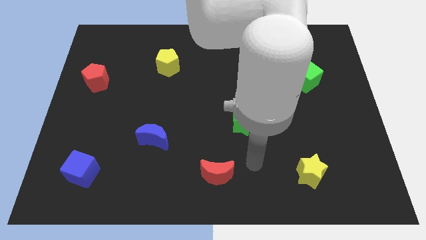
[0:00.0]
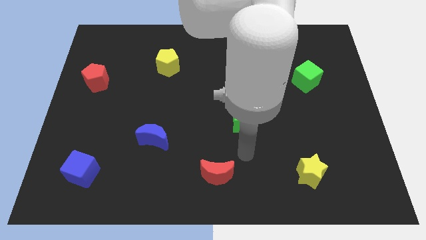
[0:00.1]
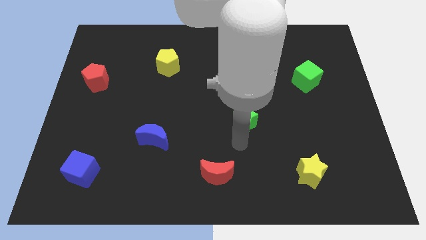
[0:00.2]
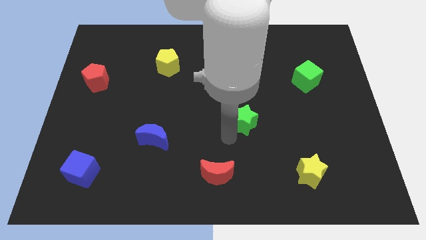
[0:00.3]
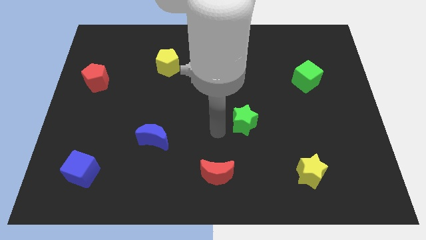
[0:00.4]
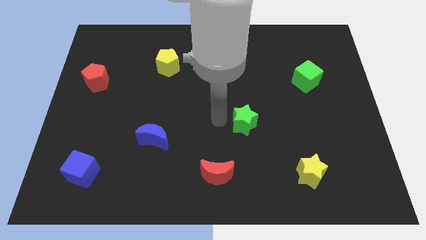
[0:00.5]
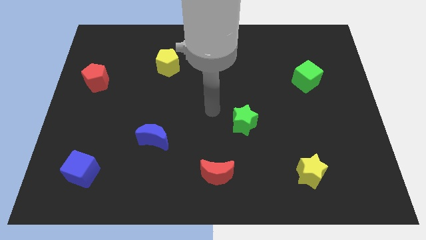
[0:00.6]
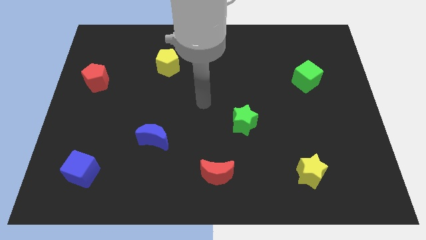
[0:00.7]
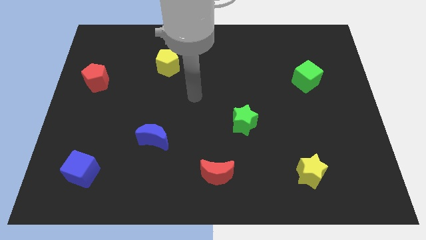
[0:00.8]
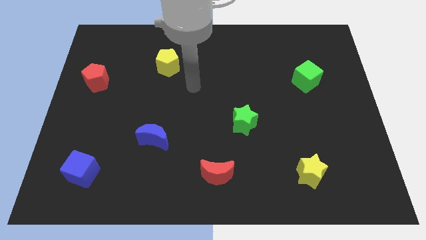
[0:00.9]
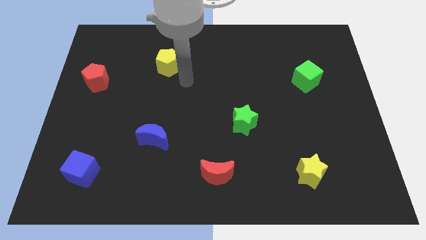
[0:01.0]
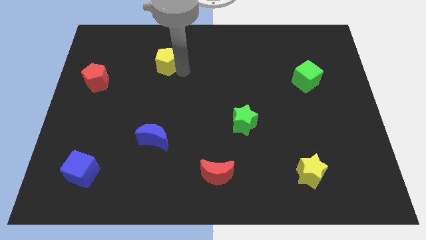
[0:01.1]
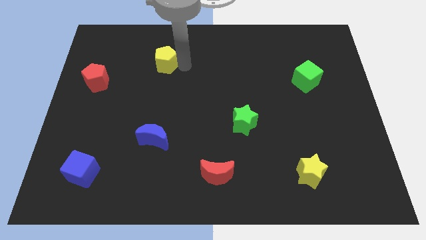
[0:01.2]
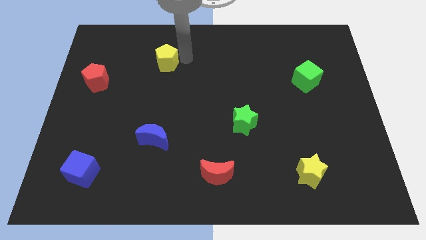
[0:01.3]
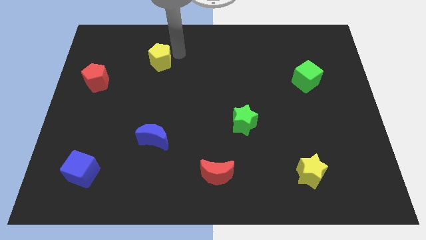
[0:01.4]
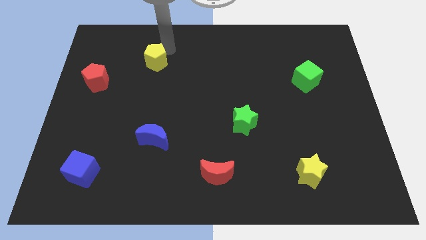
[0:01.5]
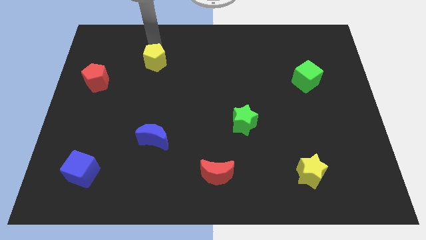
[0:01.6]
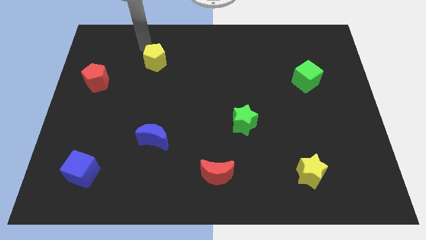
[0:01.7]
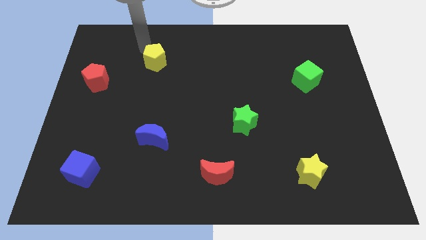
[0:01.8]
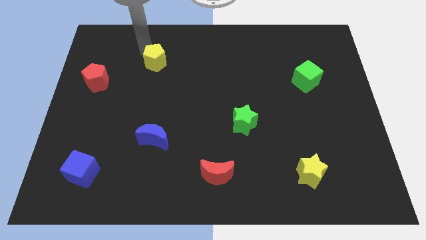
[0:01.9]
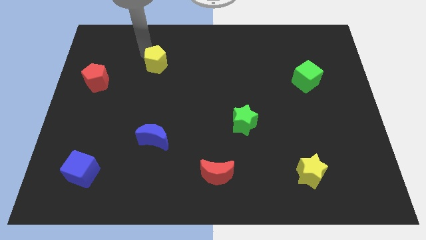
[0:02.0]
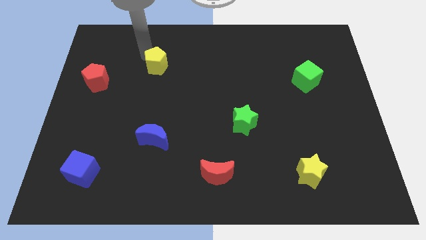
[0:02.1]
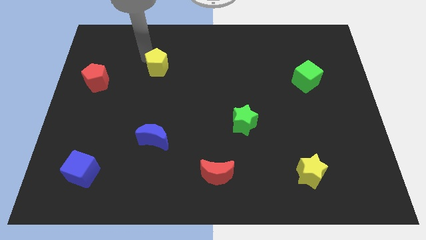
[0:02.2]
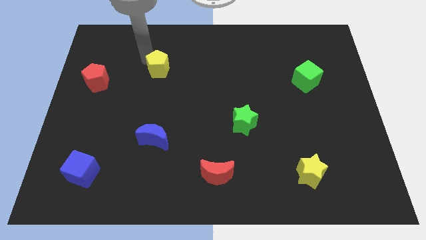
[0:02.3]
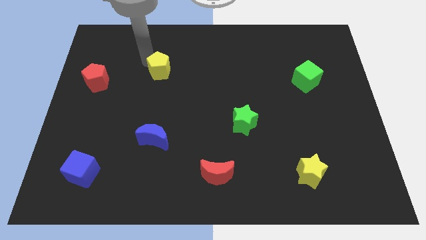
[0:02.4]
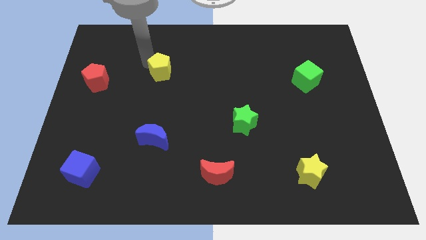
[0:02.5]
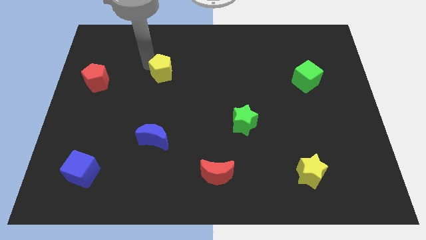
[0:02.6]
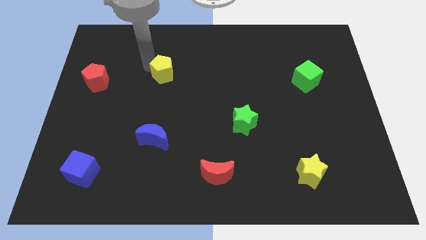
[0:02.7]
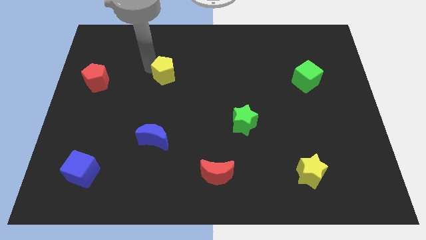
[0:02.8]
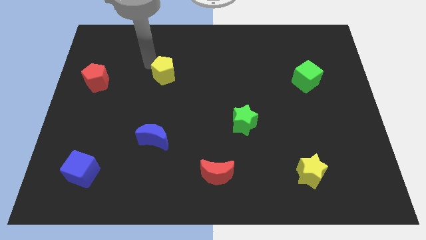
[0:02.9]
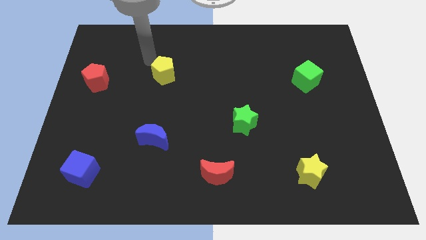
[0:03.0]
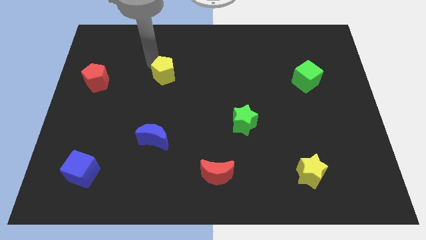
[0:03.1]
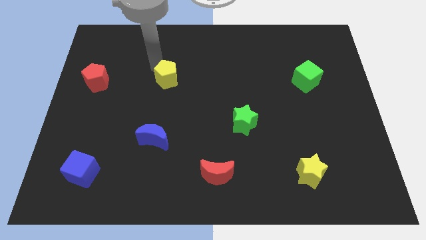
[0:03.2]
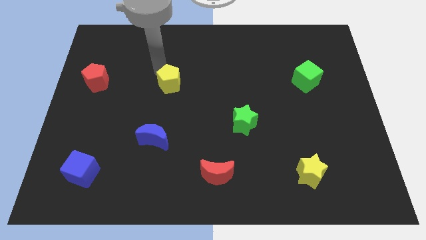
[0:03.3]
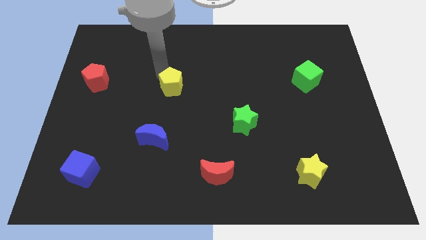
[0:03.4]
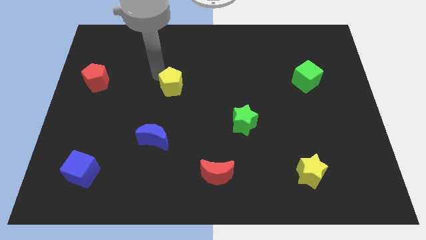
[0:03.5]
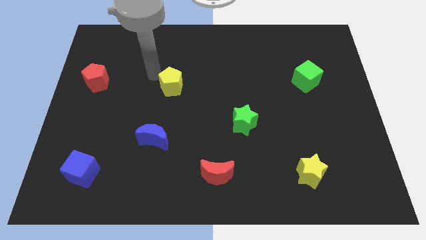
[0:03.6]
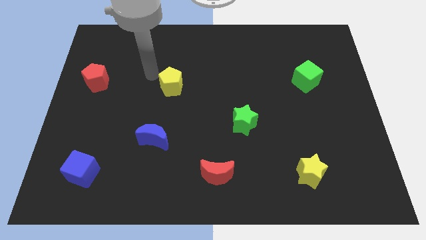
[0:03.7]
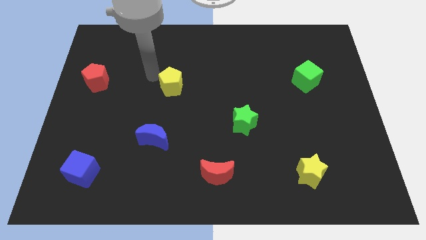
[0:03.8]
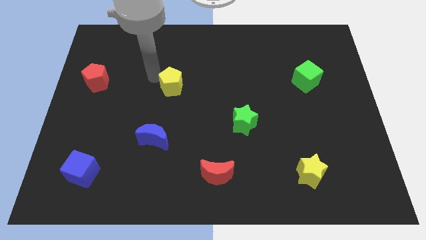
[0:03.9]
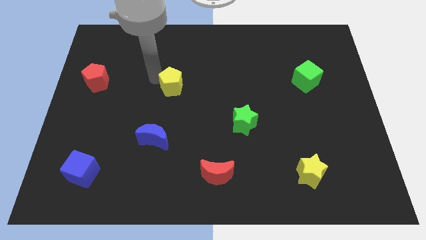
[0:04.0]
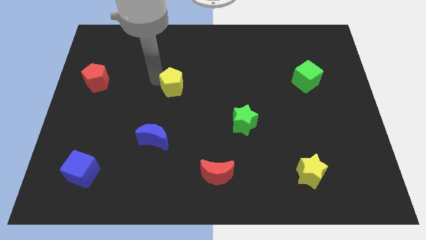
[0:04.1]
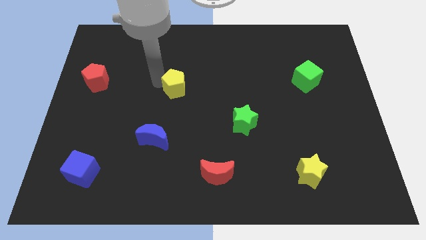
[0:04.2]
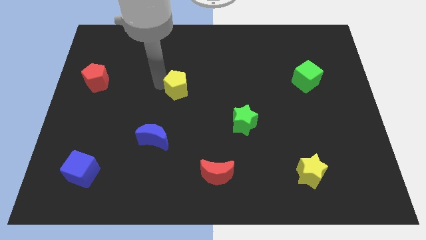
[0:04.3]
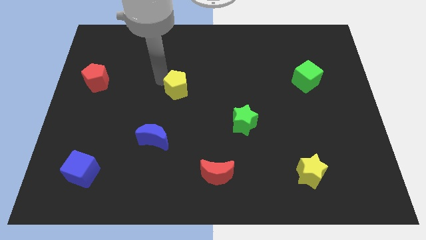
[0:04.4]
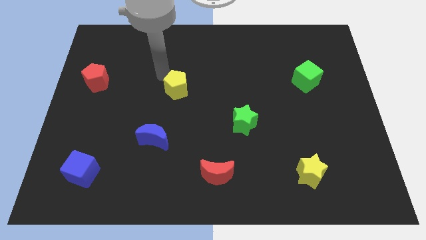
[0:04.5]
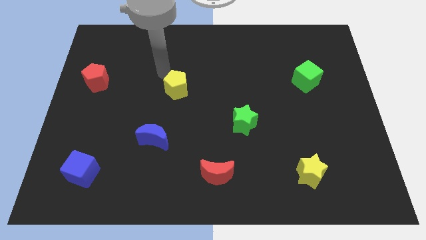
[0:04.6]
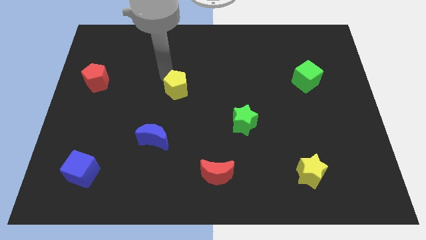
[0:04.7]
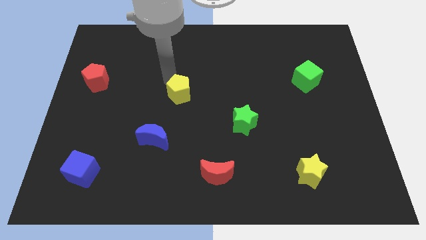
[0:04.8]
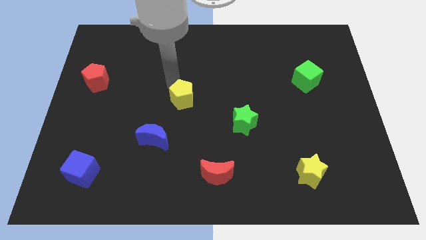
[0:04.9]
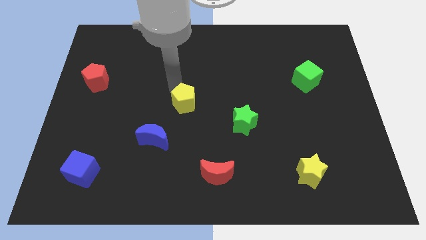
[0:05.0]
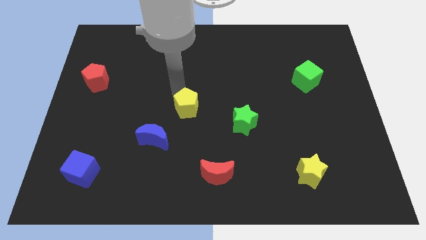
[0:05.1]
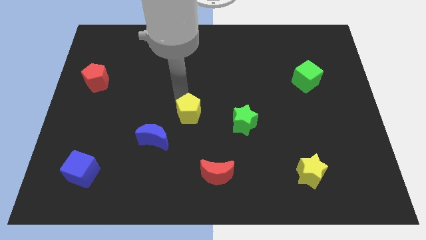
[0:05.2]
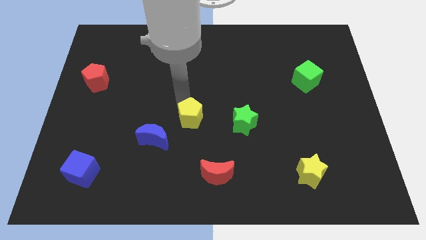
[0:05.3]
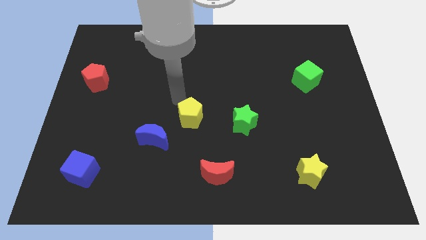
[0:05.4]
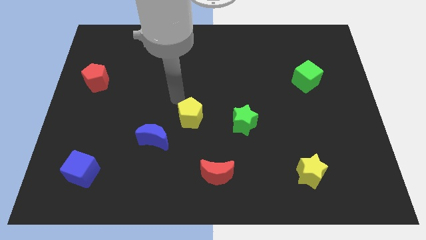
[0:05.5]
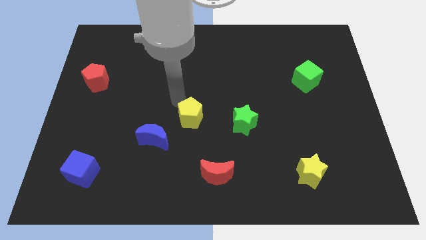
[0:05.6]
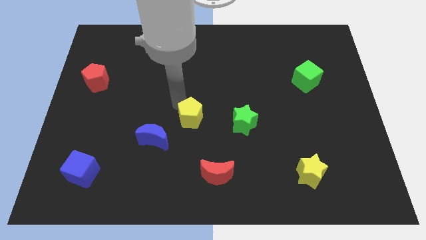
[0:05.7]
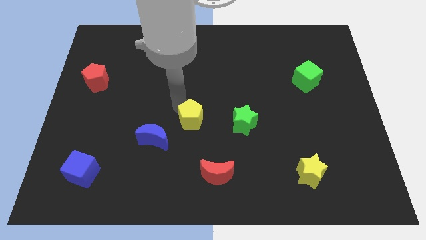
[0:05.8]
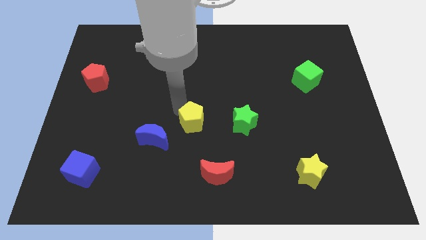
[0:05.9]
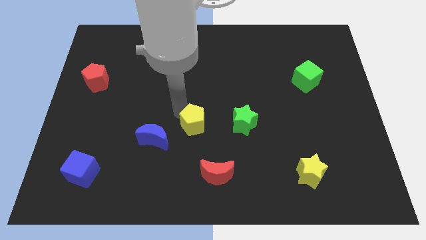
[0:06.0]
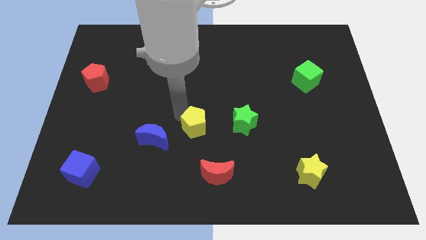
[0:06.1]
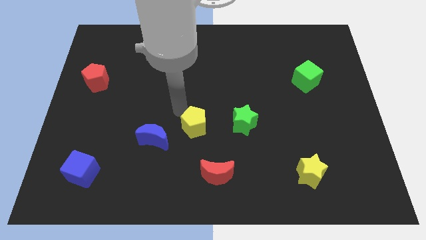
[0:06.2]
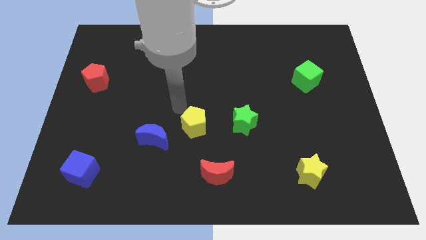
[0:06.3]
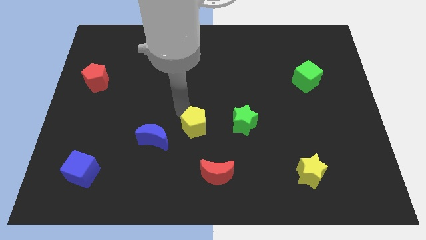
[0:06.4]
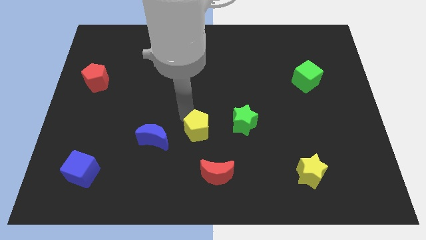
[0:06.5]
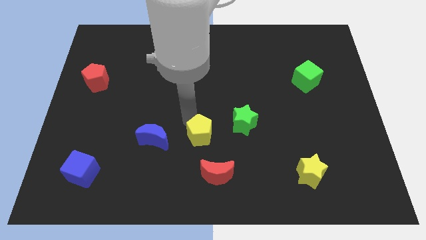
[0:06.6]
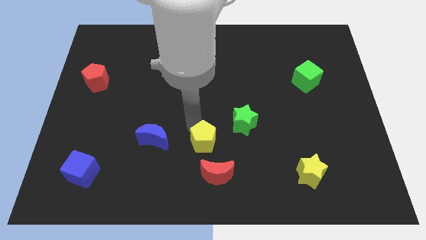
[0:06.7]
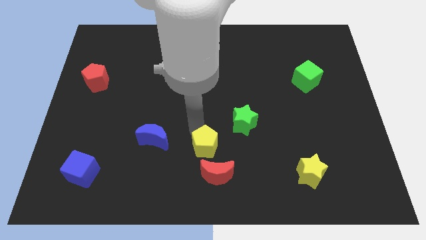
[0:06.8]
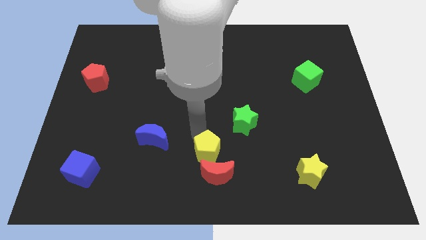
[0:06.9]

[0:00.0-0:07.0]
slide the yellow pentagon next to the red moon
